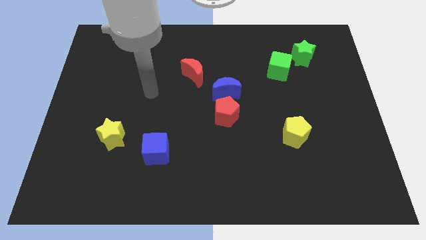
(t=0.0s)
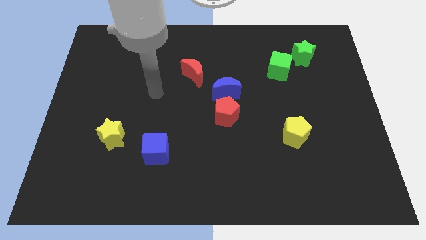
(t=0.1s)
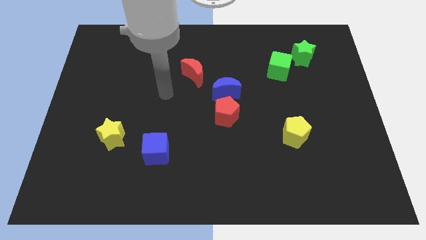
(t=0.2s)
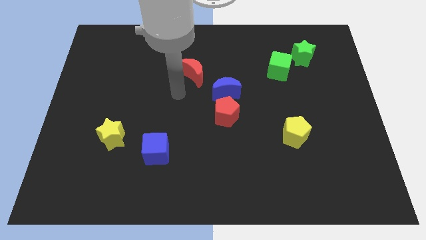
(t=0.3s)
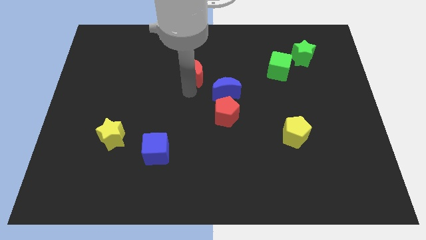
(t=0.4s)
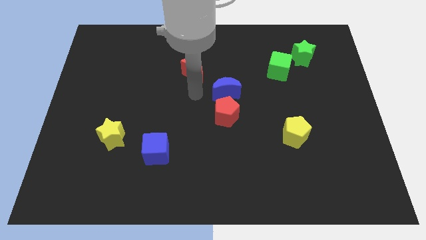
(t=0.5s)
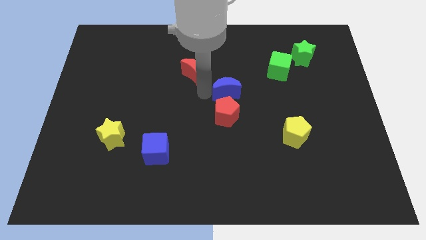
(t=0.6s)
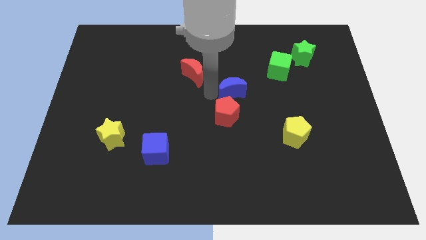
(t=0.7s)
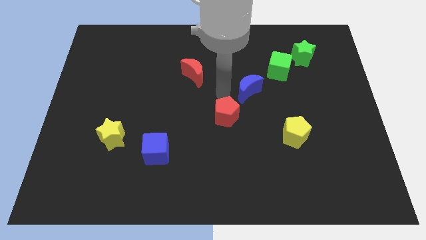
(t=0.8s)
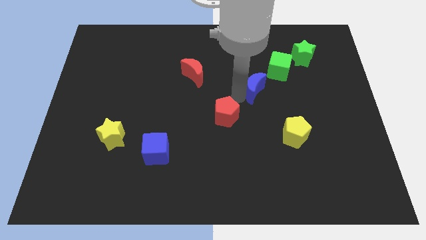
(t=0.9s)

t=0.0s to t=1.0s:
move the red pentagon away from the blue moon

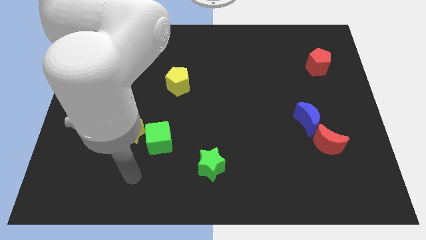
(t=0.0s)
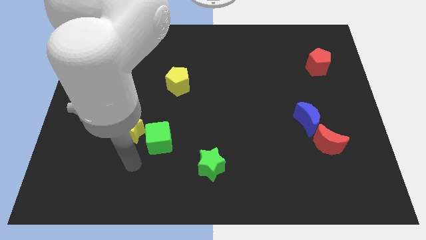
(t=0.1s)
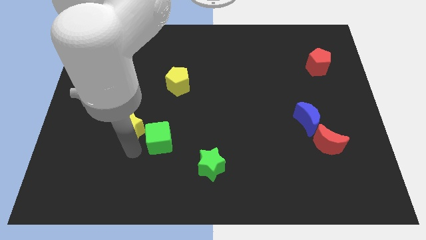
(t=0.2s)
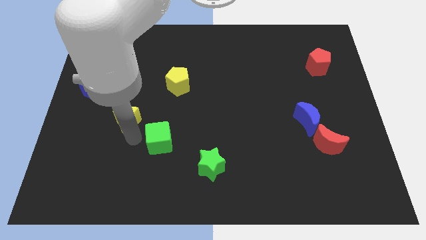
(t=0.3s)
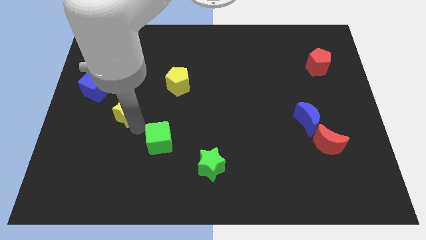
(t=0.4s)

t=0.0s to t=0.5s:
pull the green cube apart from the yellow star

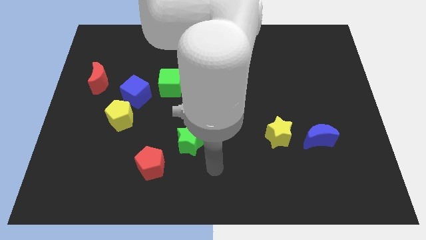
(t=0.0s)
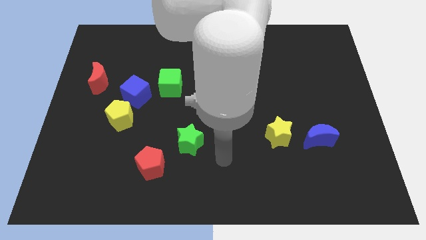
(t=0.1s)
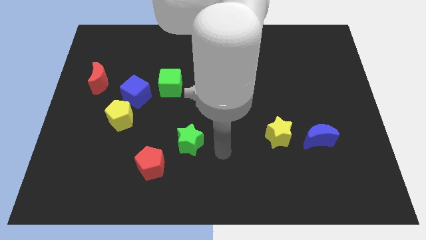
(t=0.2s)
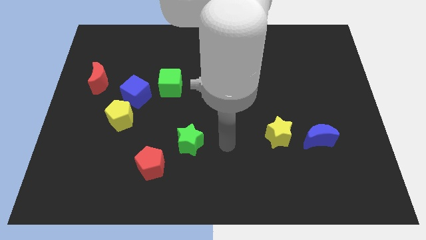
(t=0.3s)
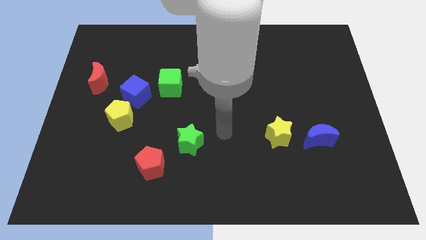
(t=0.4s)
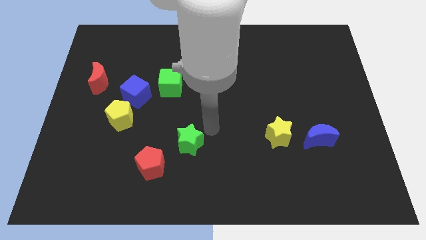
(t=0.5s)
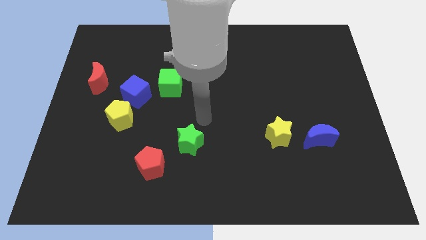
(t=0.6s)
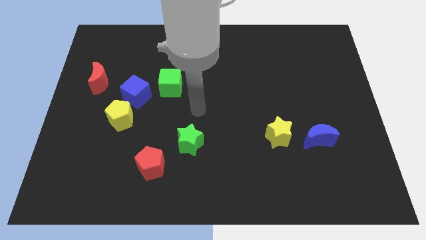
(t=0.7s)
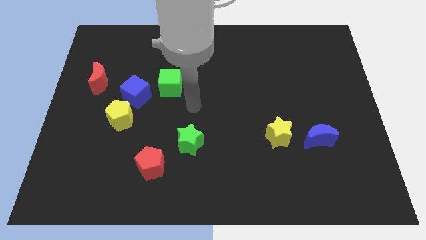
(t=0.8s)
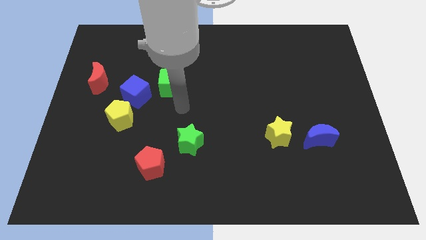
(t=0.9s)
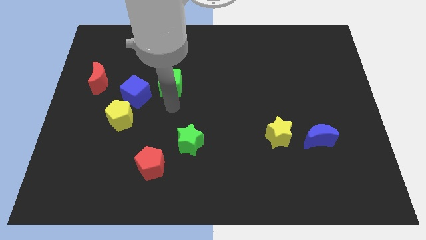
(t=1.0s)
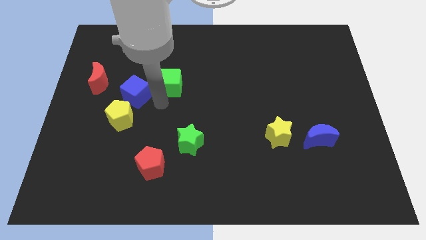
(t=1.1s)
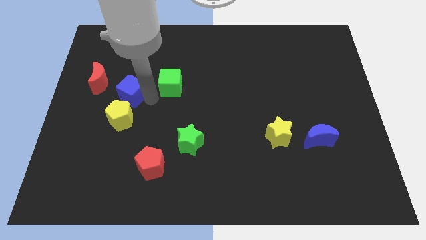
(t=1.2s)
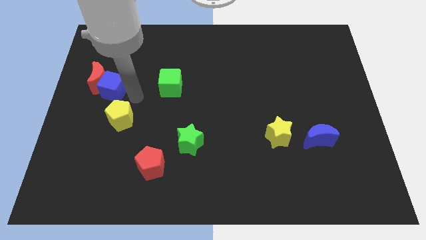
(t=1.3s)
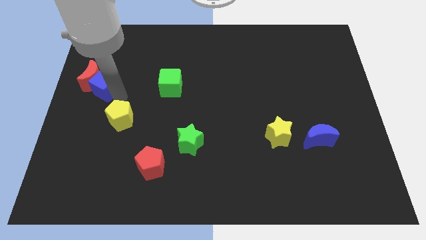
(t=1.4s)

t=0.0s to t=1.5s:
move the yellow pentagon away from the blue cube

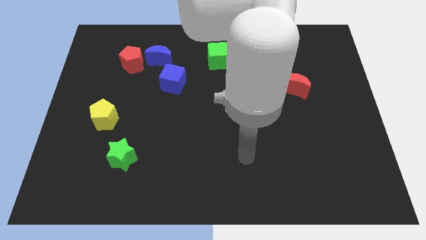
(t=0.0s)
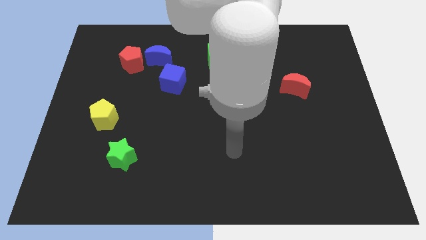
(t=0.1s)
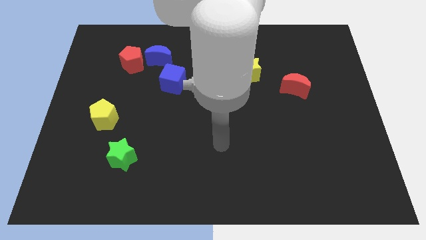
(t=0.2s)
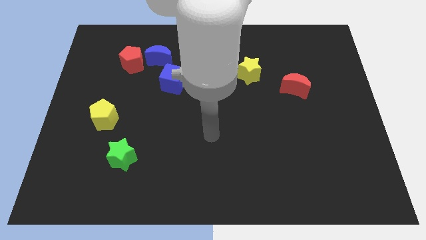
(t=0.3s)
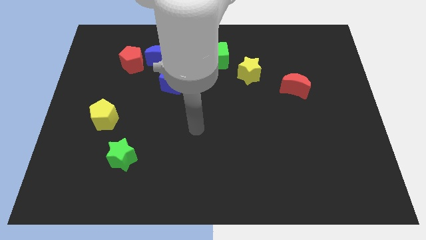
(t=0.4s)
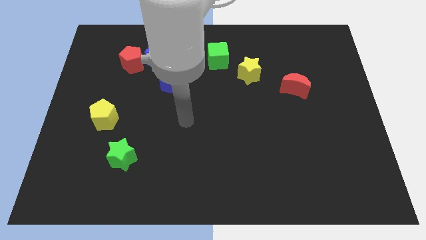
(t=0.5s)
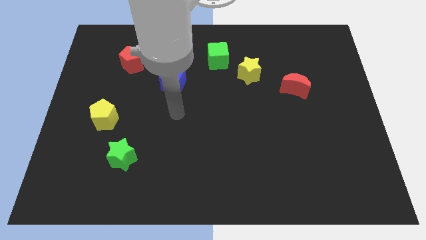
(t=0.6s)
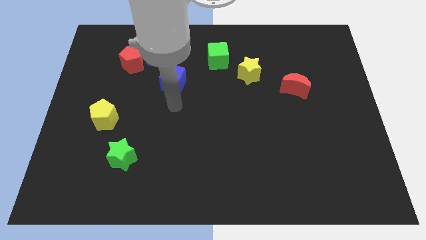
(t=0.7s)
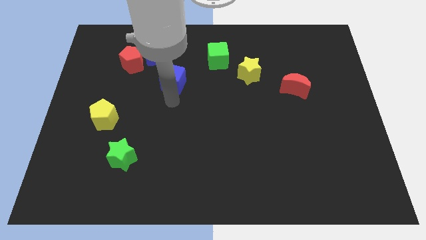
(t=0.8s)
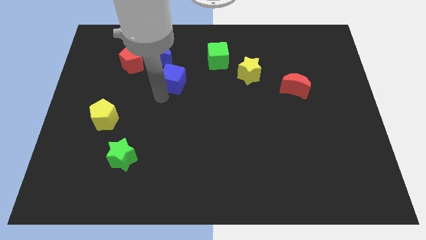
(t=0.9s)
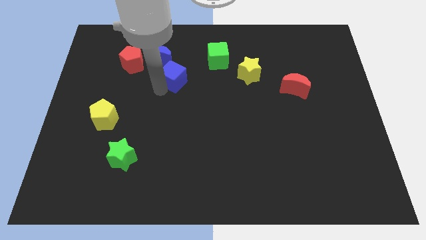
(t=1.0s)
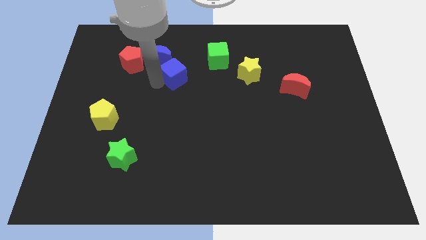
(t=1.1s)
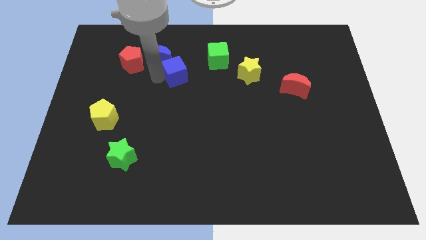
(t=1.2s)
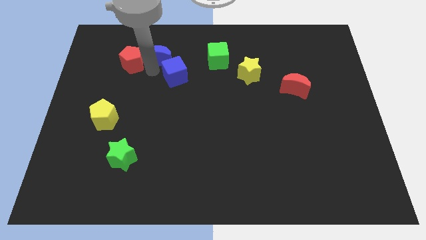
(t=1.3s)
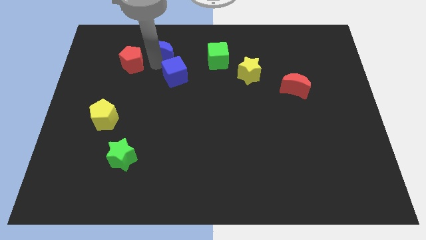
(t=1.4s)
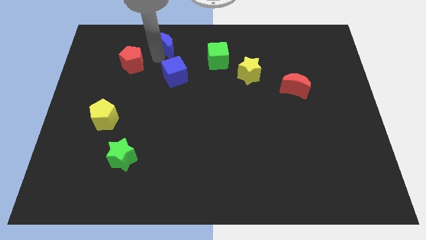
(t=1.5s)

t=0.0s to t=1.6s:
pull the red pentagon apart from the blue moon

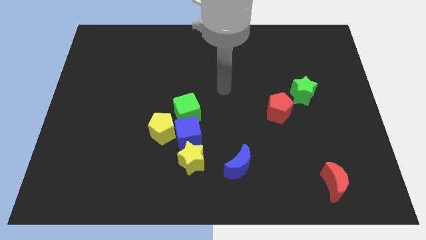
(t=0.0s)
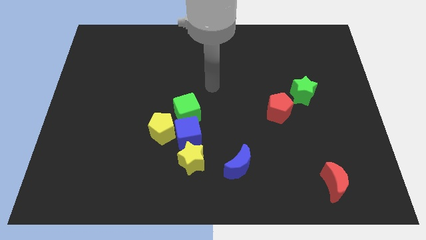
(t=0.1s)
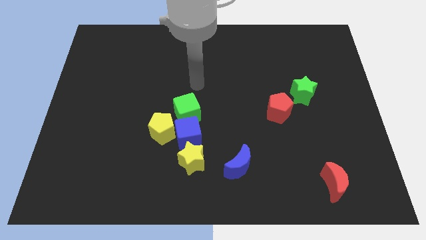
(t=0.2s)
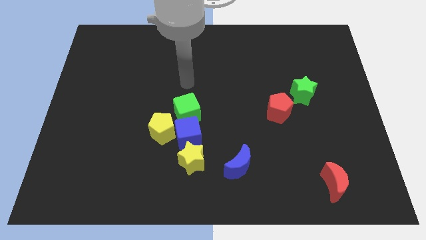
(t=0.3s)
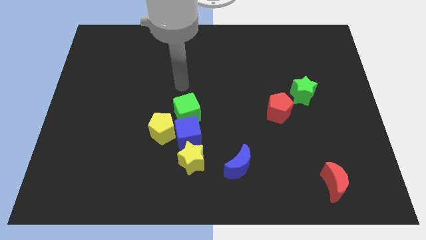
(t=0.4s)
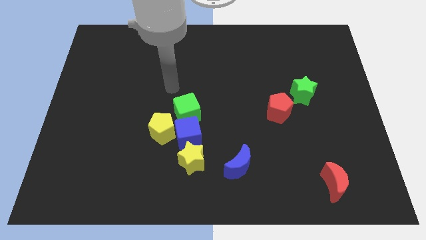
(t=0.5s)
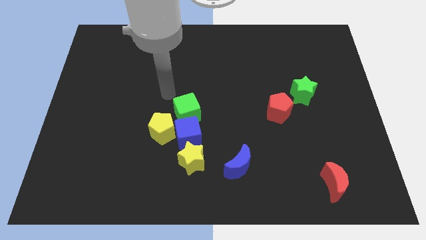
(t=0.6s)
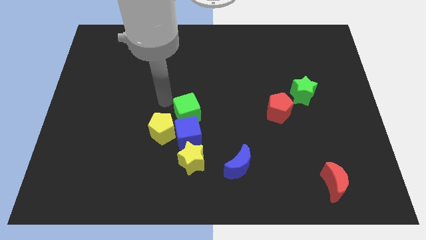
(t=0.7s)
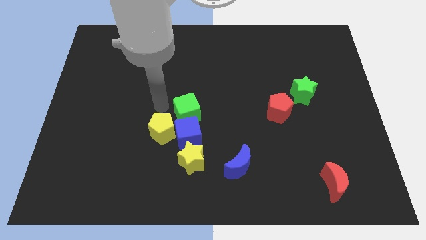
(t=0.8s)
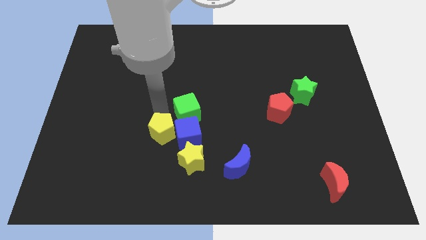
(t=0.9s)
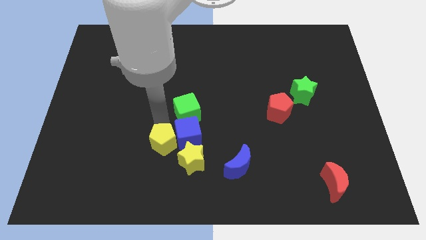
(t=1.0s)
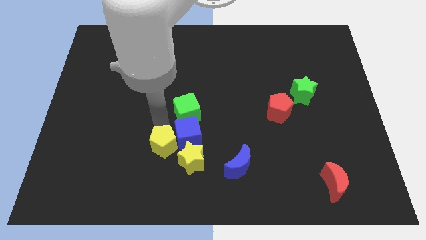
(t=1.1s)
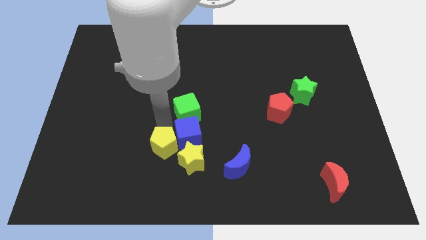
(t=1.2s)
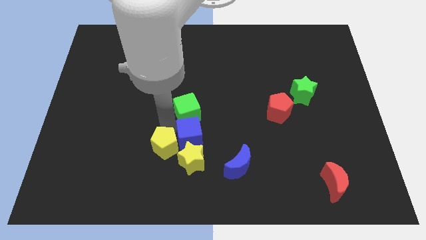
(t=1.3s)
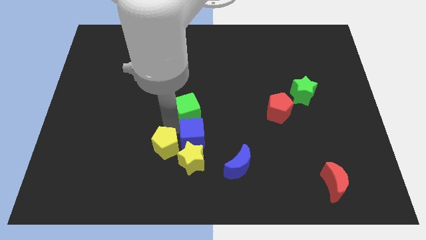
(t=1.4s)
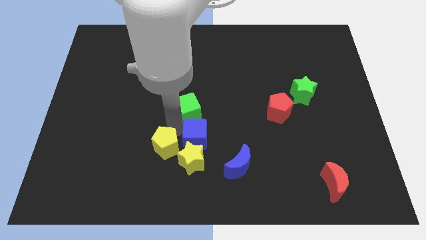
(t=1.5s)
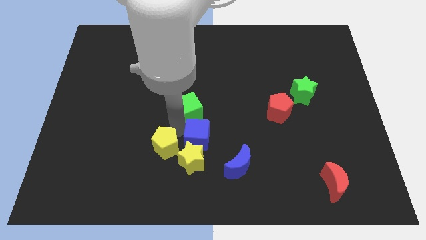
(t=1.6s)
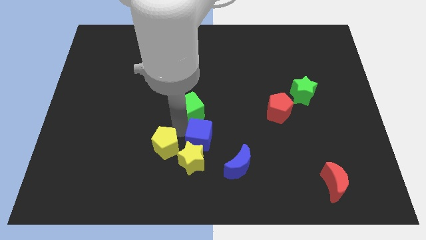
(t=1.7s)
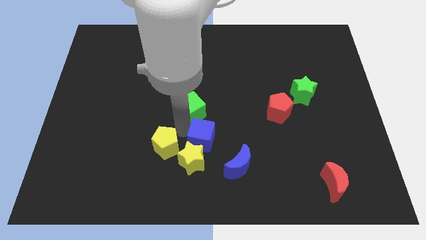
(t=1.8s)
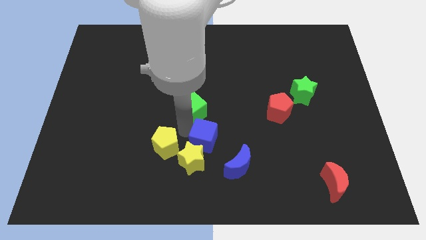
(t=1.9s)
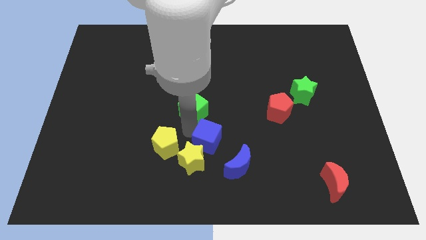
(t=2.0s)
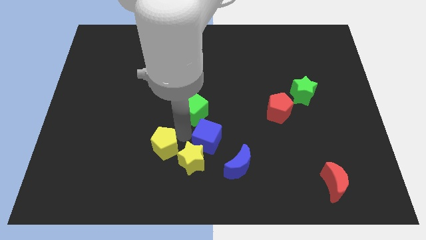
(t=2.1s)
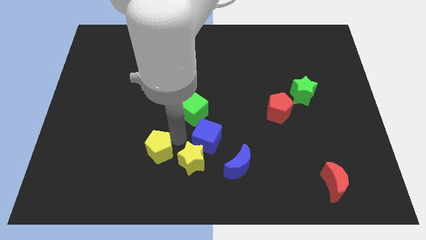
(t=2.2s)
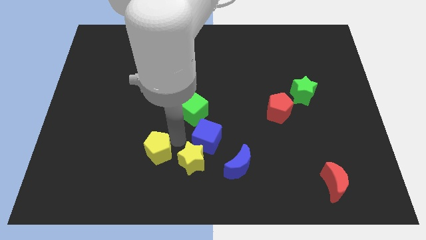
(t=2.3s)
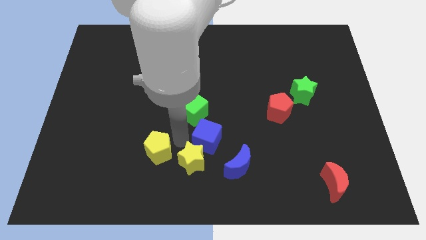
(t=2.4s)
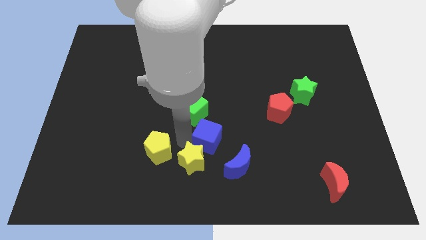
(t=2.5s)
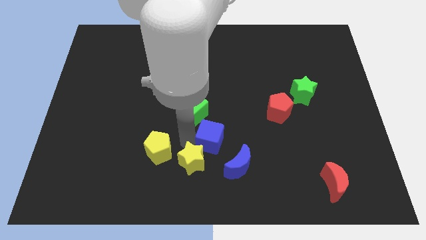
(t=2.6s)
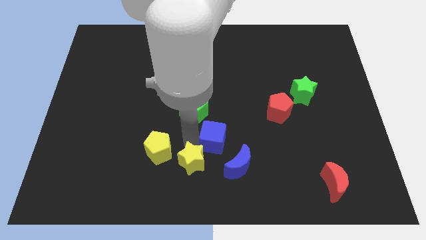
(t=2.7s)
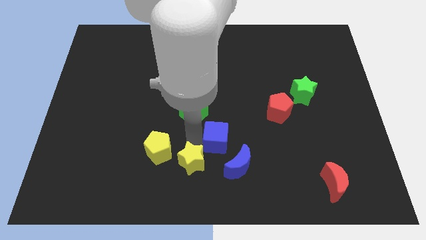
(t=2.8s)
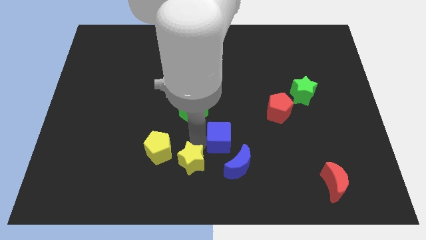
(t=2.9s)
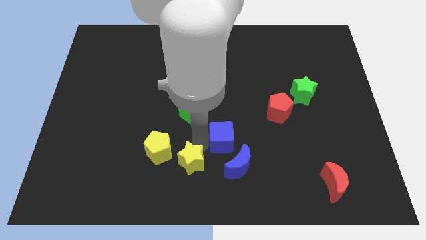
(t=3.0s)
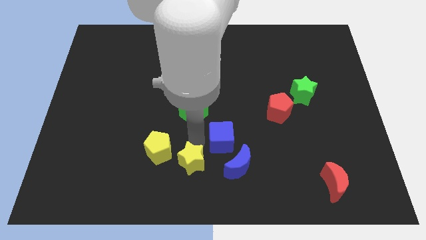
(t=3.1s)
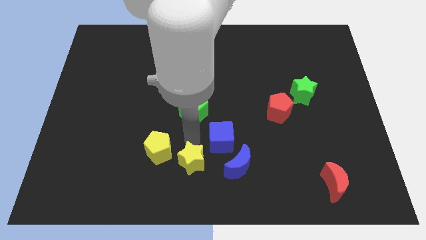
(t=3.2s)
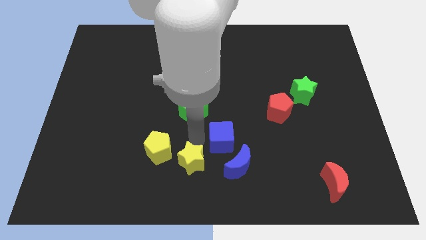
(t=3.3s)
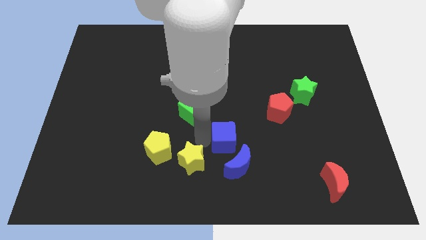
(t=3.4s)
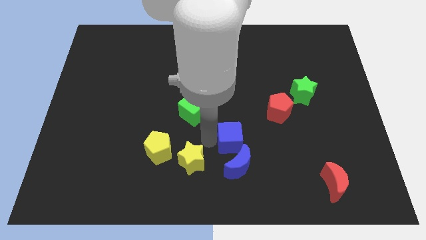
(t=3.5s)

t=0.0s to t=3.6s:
pull the blue cube apart from the yellow pentagon, yellow star, and green cube

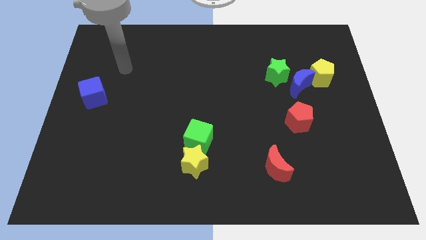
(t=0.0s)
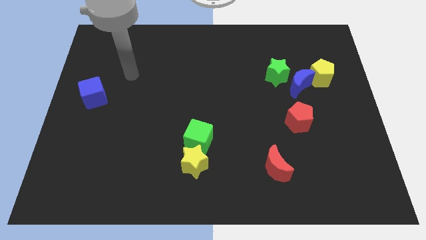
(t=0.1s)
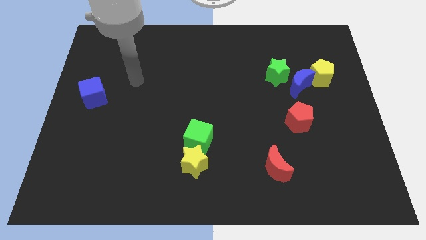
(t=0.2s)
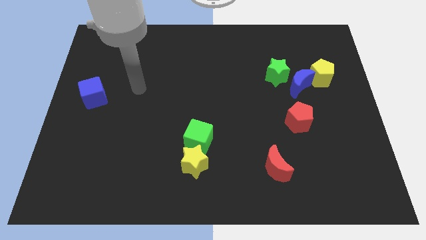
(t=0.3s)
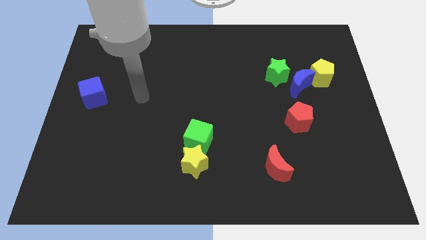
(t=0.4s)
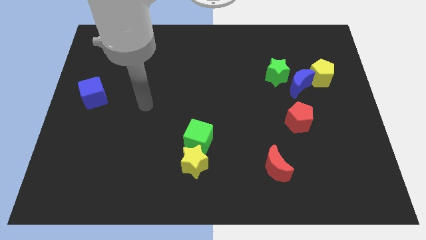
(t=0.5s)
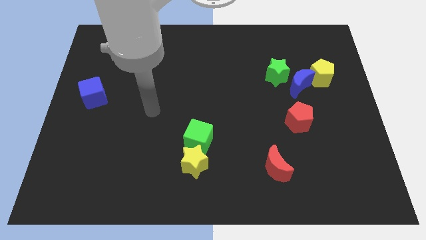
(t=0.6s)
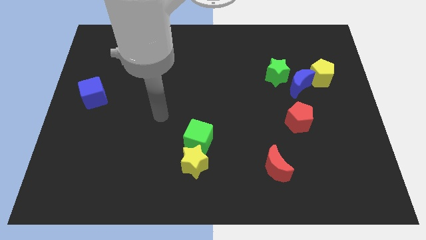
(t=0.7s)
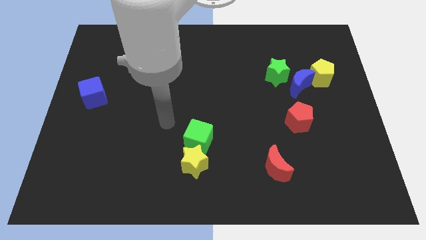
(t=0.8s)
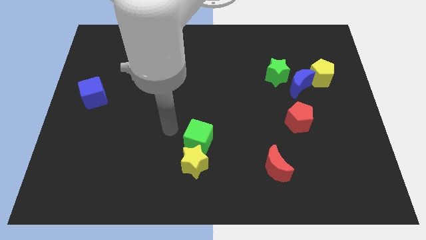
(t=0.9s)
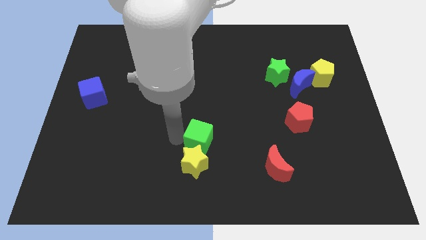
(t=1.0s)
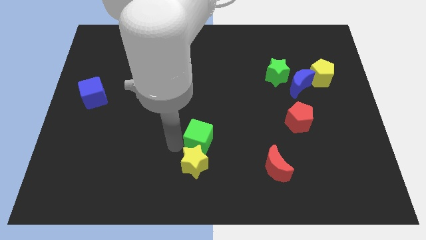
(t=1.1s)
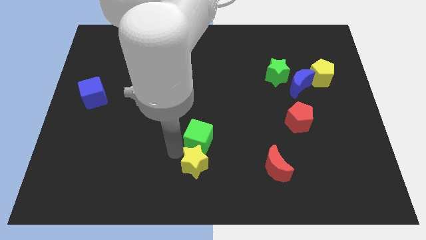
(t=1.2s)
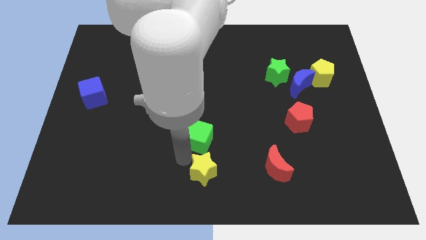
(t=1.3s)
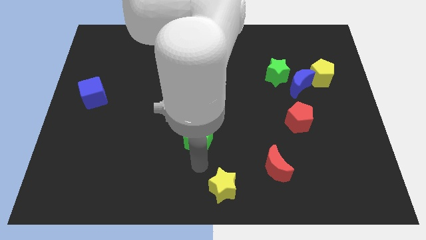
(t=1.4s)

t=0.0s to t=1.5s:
separate the green cube from the yellow star
